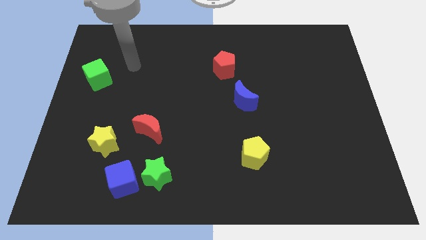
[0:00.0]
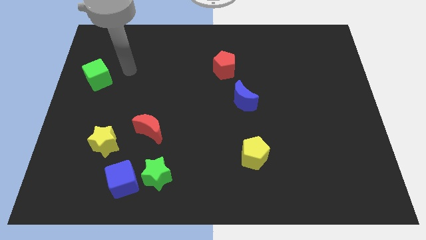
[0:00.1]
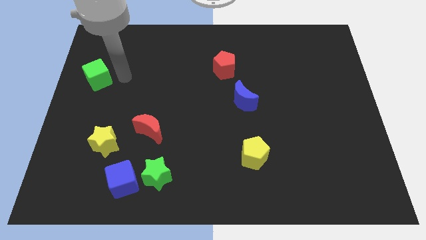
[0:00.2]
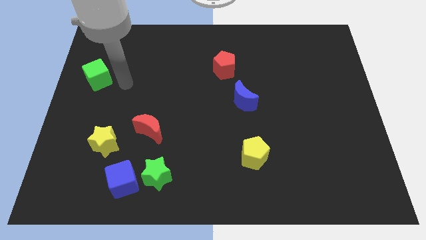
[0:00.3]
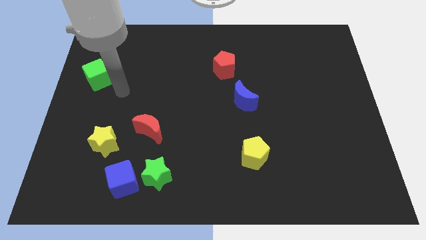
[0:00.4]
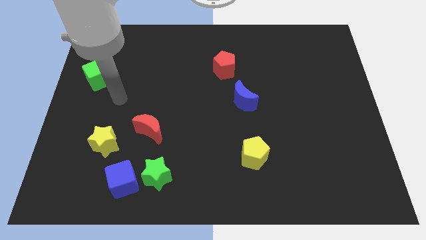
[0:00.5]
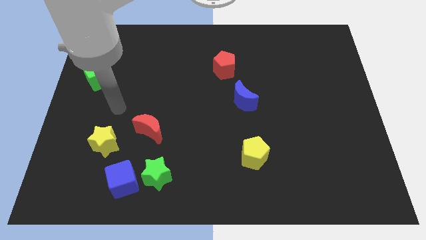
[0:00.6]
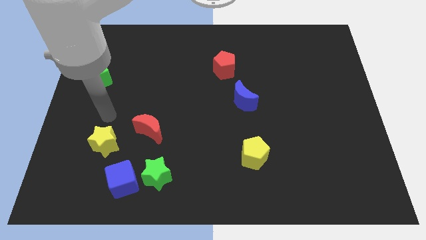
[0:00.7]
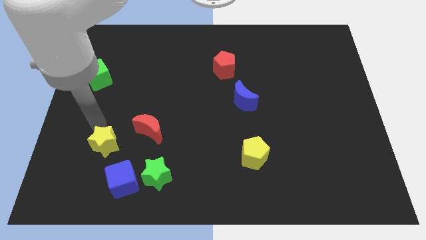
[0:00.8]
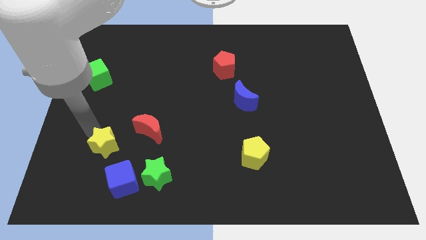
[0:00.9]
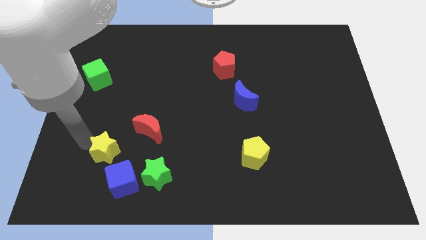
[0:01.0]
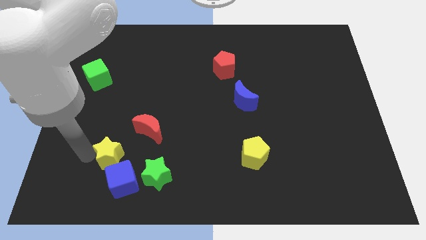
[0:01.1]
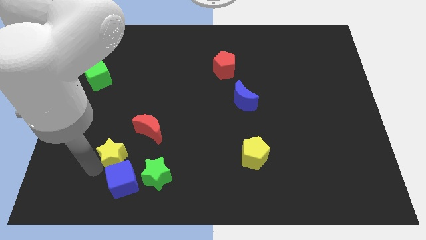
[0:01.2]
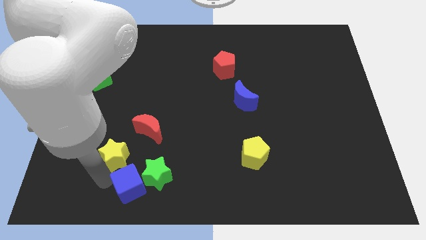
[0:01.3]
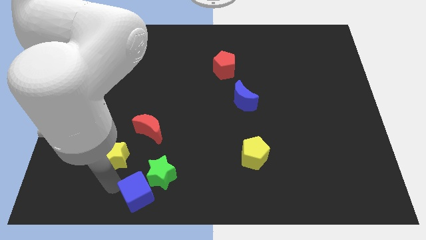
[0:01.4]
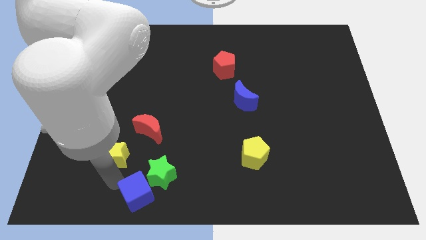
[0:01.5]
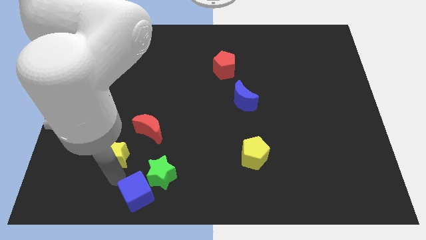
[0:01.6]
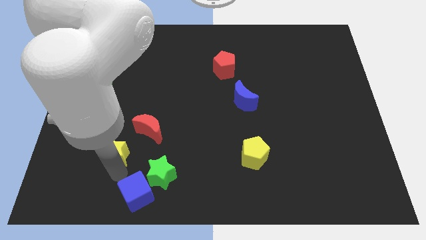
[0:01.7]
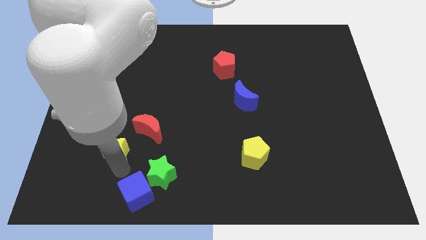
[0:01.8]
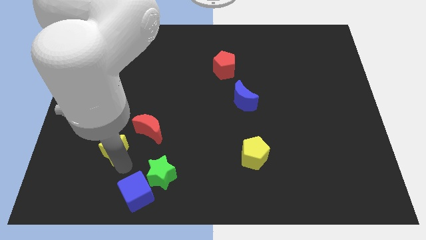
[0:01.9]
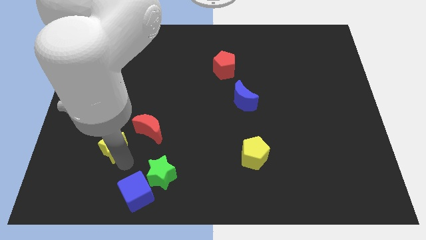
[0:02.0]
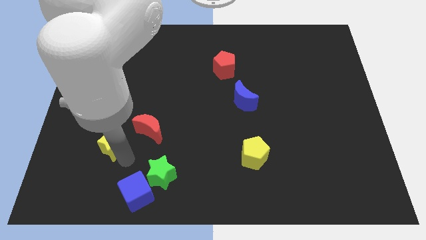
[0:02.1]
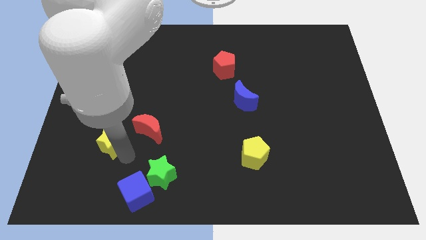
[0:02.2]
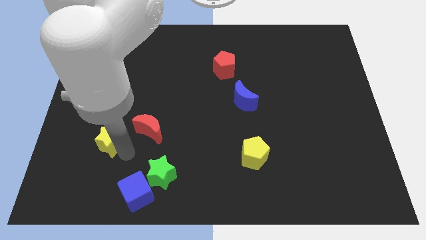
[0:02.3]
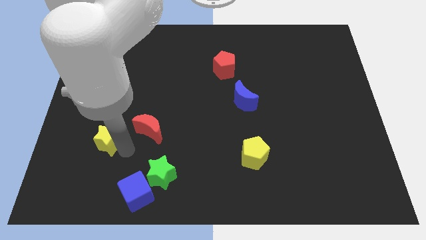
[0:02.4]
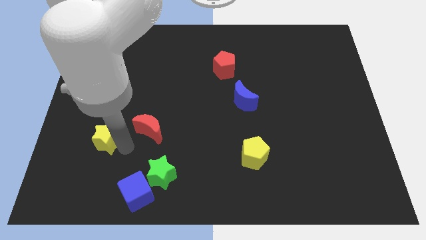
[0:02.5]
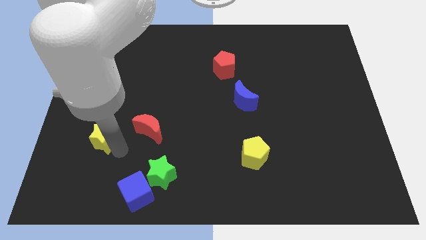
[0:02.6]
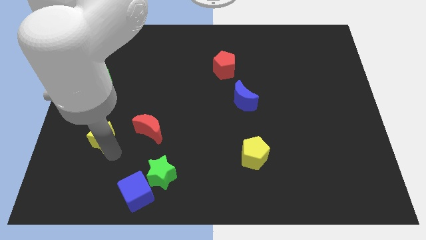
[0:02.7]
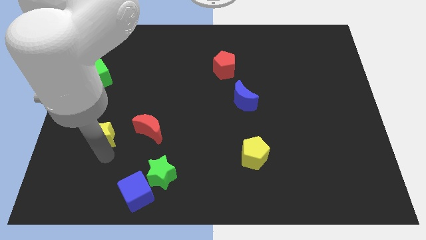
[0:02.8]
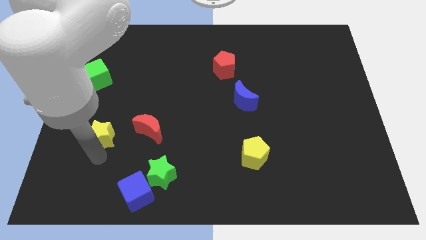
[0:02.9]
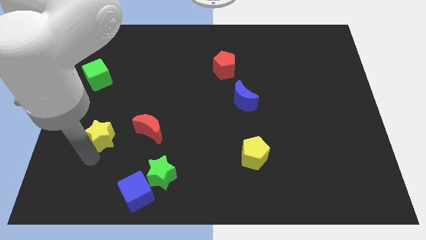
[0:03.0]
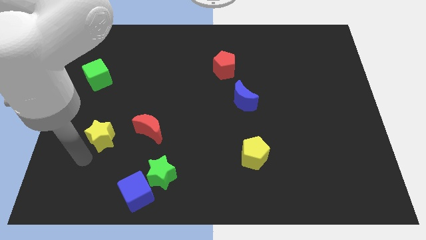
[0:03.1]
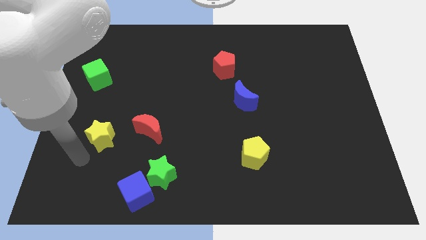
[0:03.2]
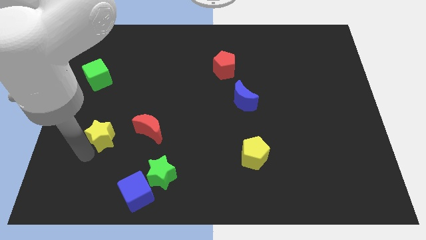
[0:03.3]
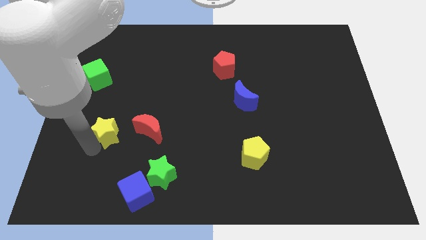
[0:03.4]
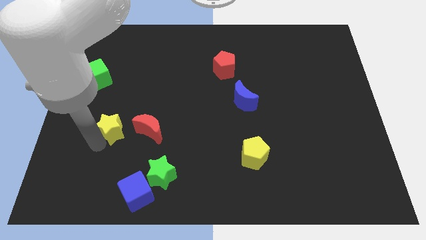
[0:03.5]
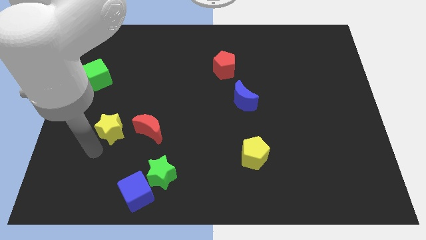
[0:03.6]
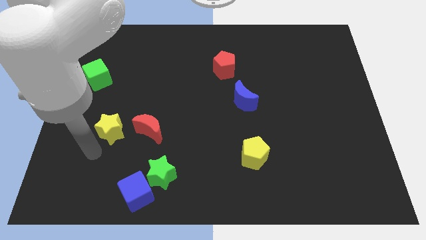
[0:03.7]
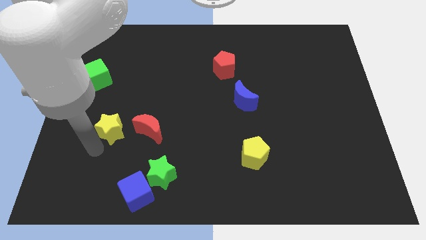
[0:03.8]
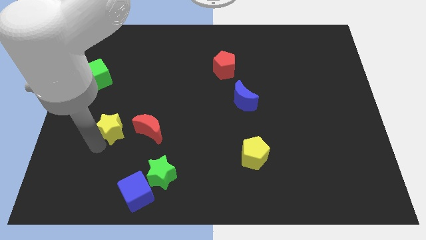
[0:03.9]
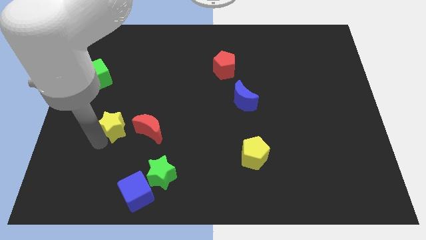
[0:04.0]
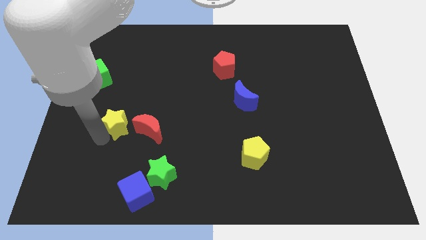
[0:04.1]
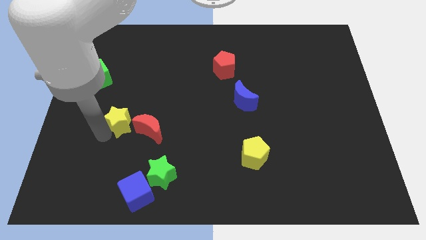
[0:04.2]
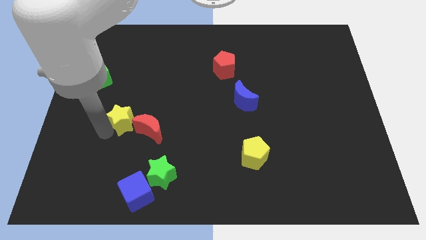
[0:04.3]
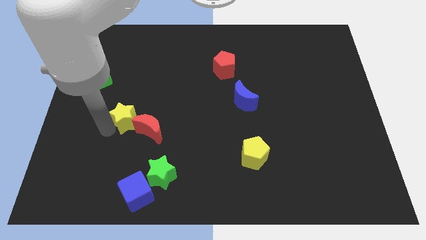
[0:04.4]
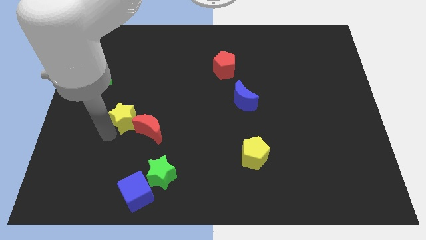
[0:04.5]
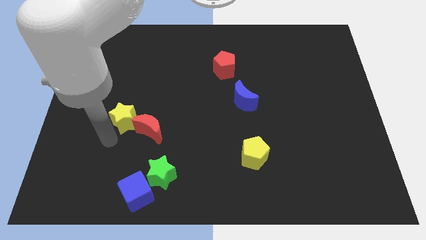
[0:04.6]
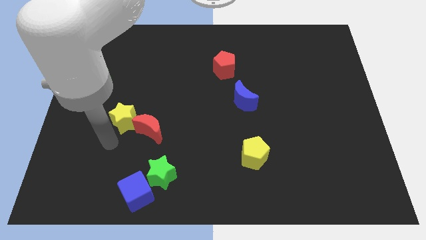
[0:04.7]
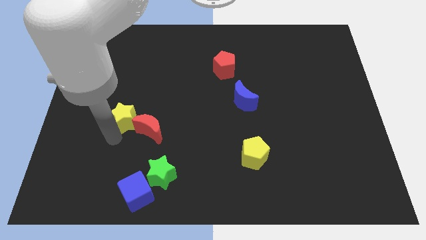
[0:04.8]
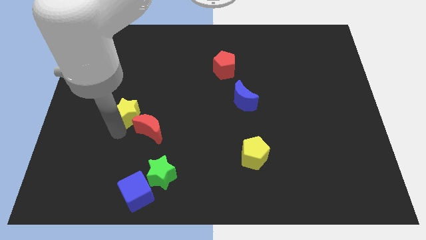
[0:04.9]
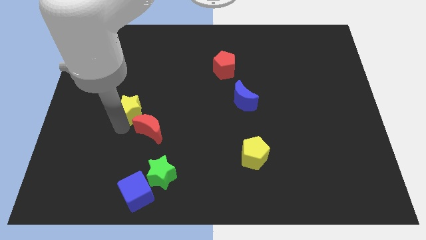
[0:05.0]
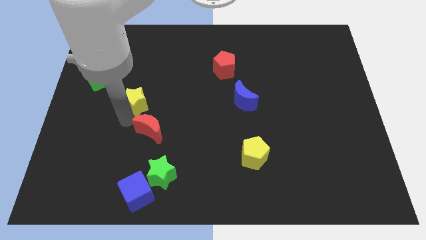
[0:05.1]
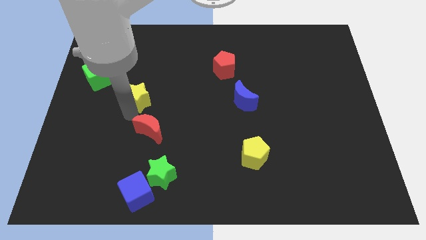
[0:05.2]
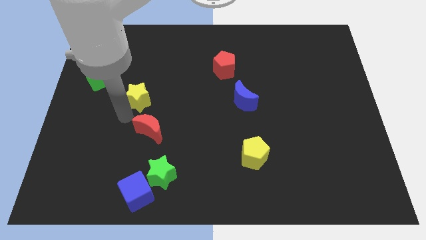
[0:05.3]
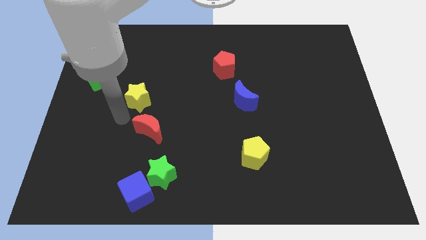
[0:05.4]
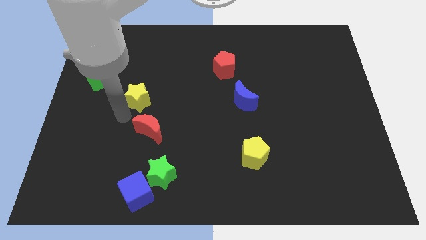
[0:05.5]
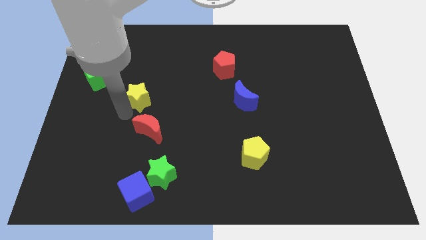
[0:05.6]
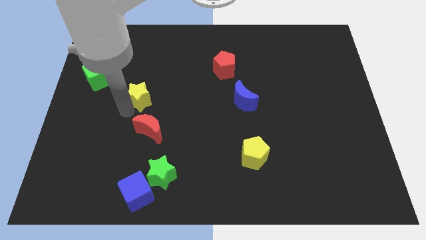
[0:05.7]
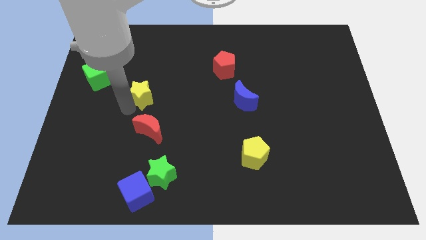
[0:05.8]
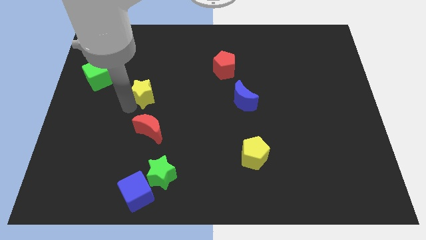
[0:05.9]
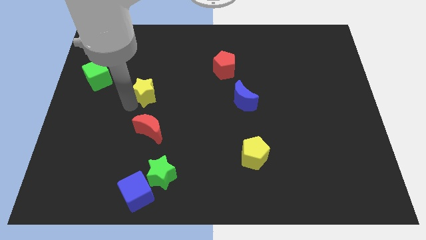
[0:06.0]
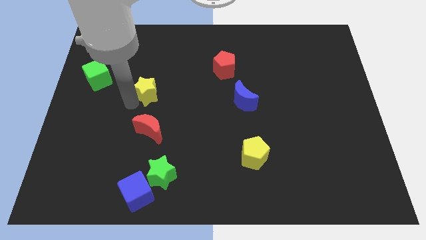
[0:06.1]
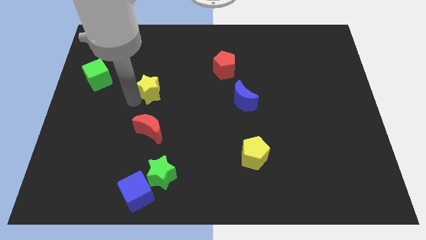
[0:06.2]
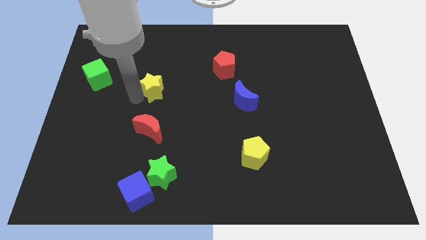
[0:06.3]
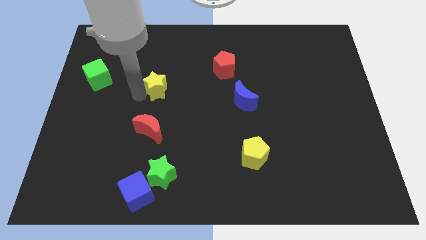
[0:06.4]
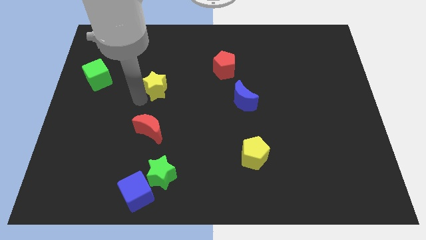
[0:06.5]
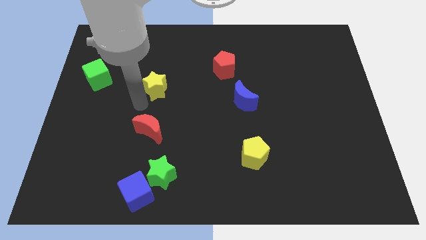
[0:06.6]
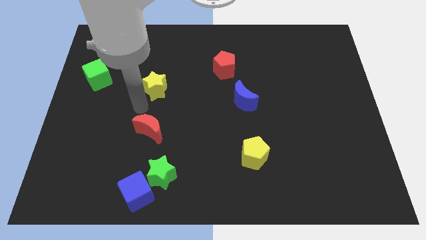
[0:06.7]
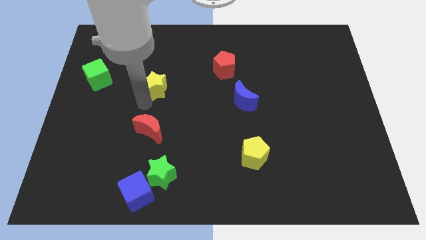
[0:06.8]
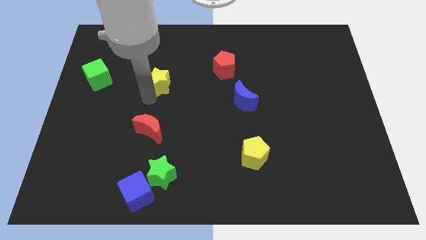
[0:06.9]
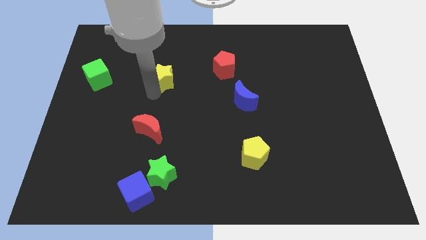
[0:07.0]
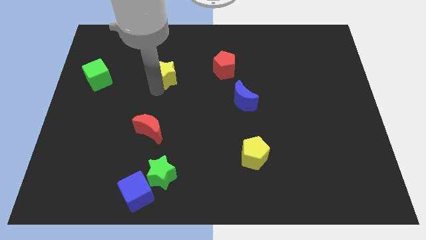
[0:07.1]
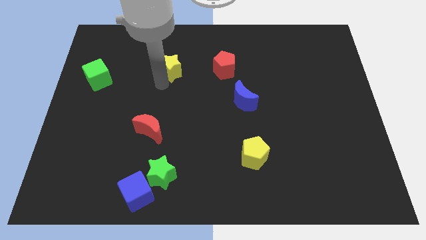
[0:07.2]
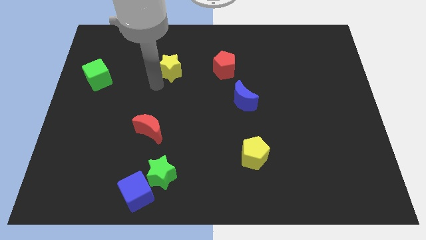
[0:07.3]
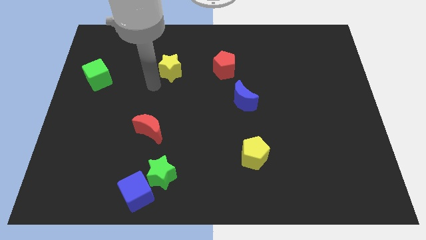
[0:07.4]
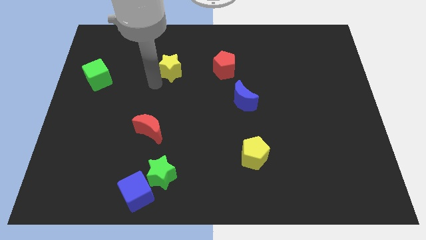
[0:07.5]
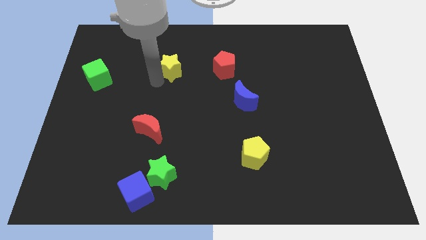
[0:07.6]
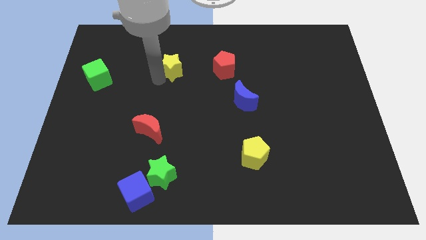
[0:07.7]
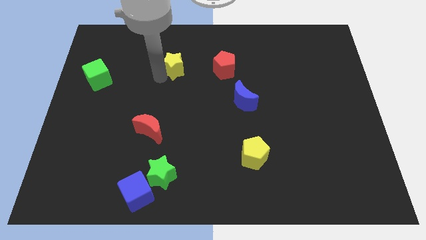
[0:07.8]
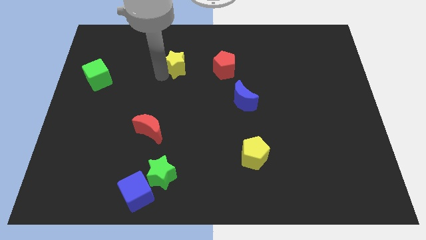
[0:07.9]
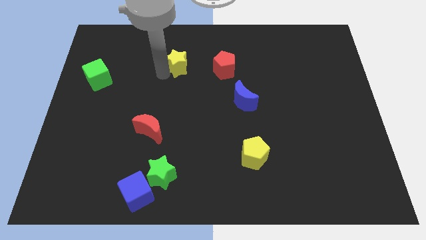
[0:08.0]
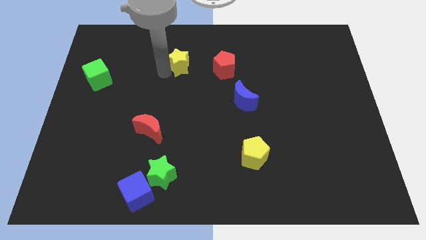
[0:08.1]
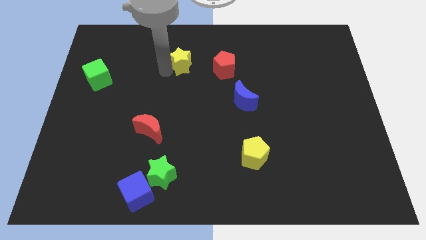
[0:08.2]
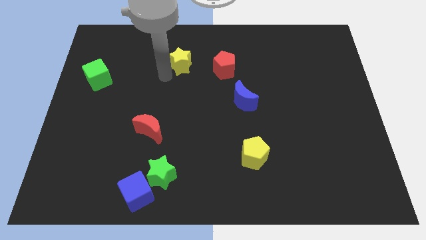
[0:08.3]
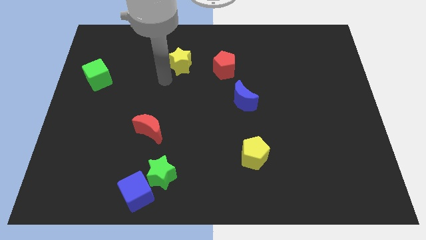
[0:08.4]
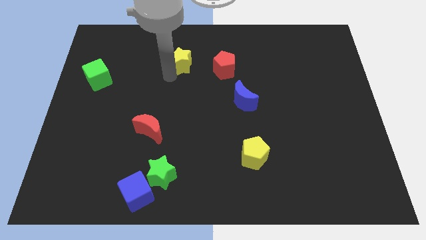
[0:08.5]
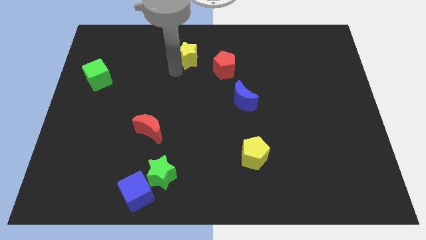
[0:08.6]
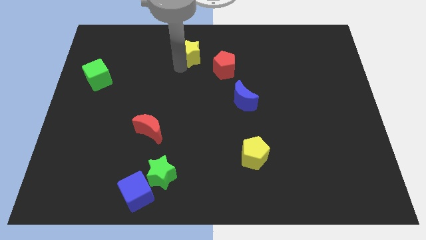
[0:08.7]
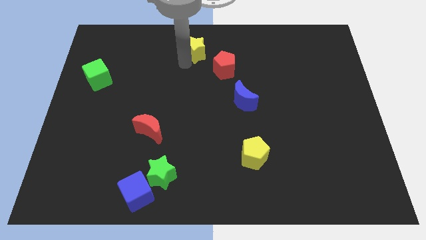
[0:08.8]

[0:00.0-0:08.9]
put the yellow star to the top
